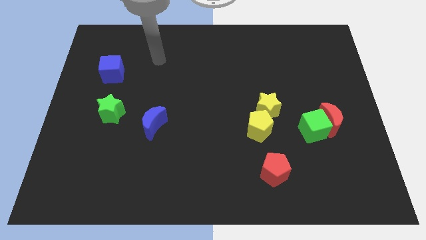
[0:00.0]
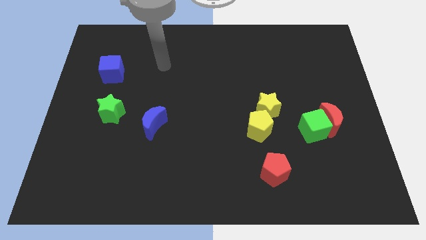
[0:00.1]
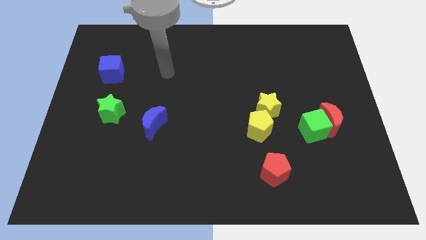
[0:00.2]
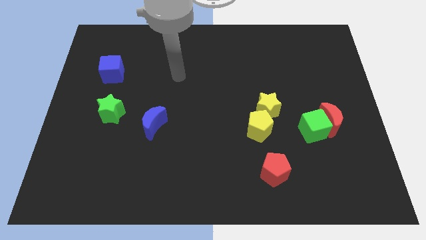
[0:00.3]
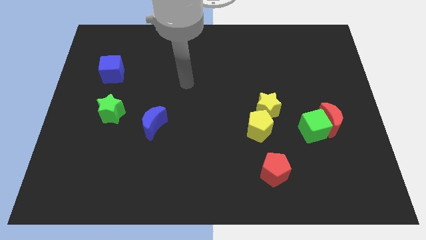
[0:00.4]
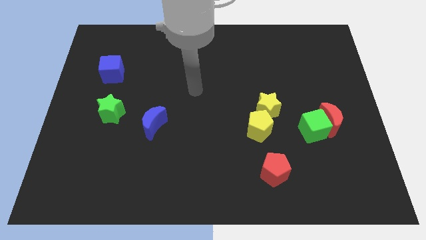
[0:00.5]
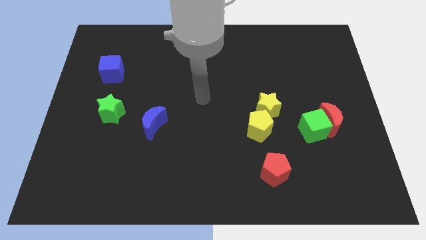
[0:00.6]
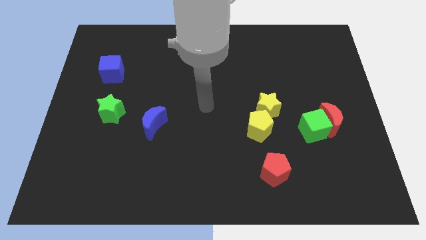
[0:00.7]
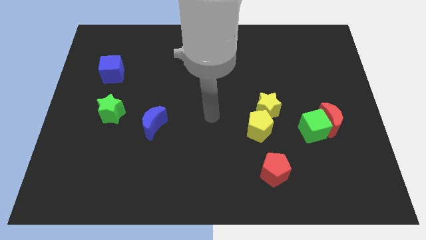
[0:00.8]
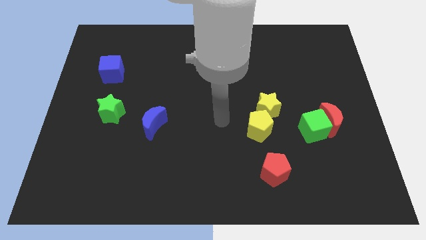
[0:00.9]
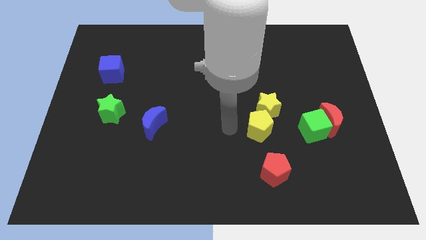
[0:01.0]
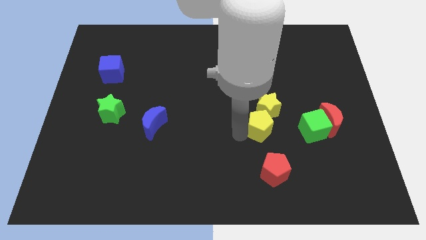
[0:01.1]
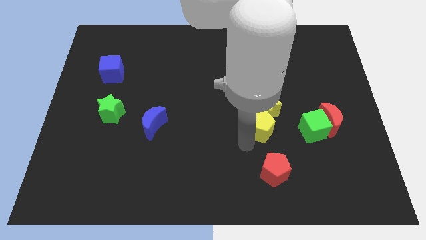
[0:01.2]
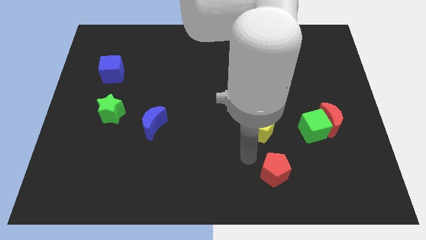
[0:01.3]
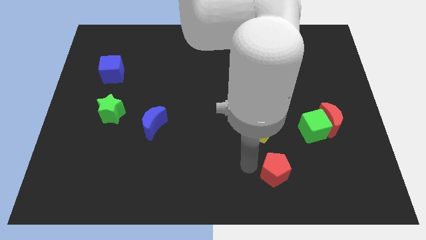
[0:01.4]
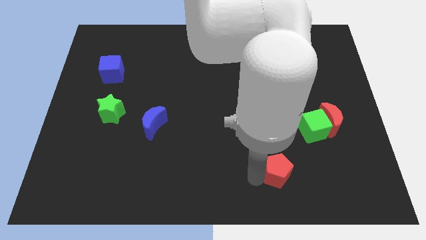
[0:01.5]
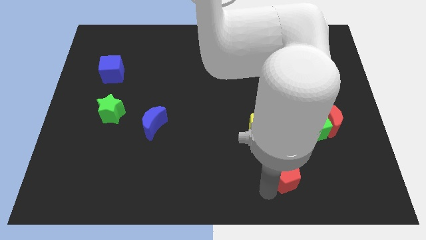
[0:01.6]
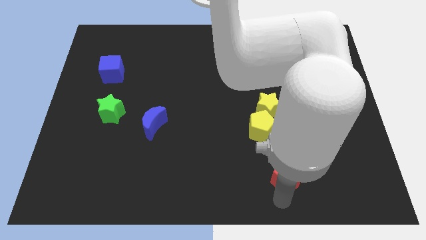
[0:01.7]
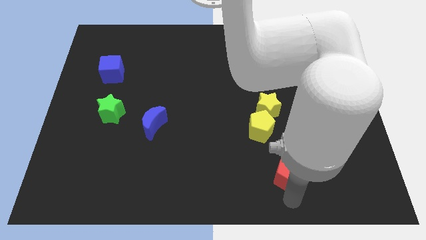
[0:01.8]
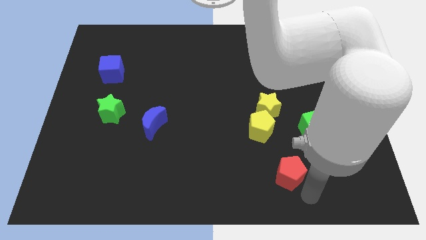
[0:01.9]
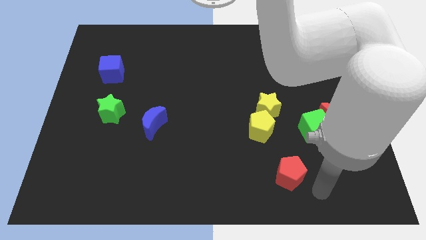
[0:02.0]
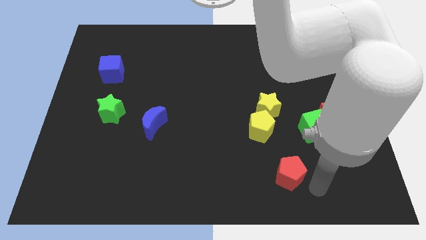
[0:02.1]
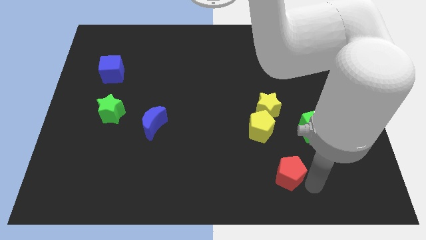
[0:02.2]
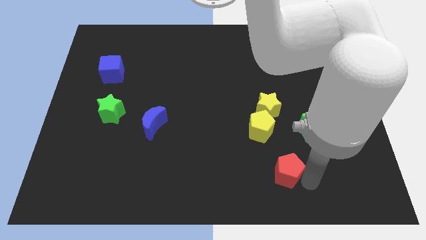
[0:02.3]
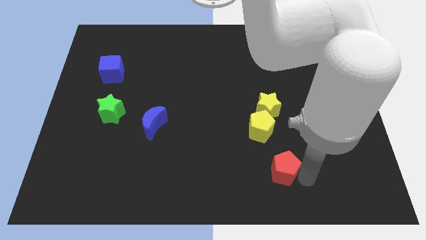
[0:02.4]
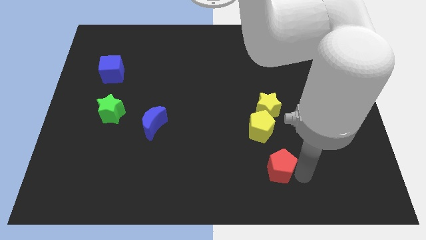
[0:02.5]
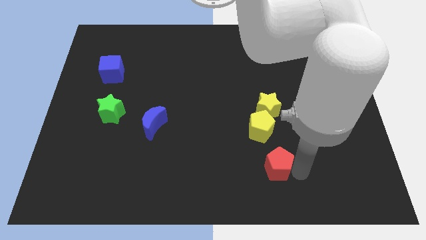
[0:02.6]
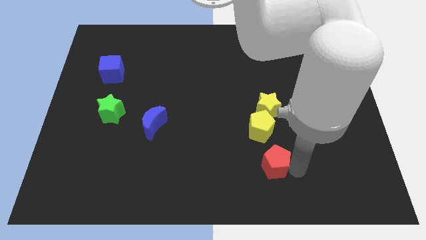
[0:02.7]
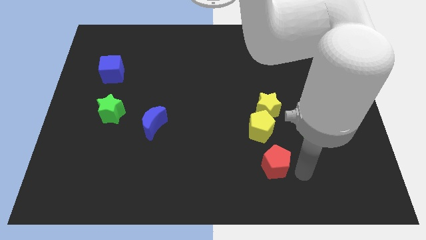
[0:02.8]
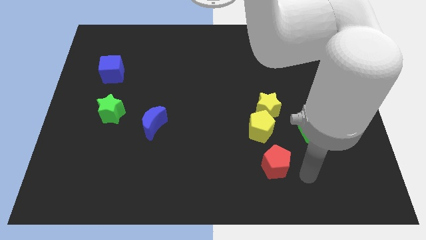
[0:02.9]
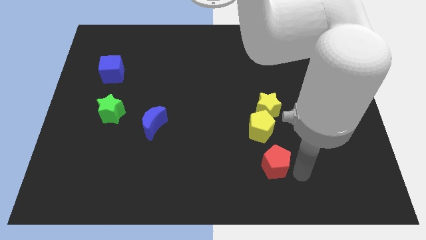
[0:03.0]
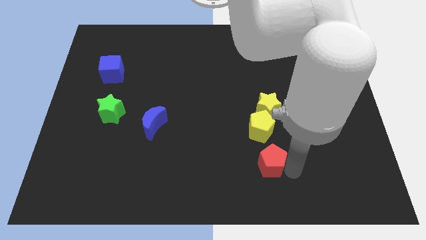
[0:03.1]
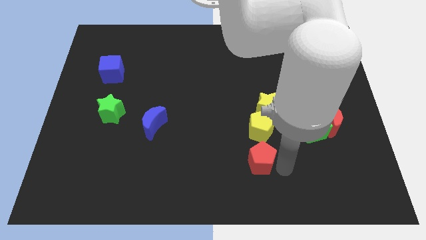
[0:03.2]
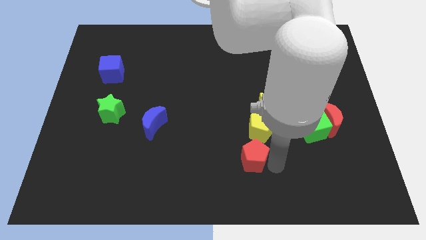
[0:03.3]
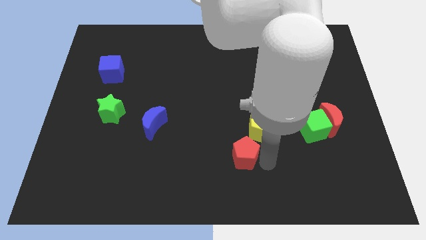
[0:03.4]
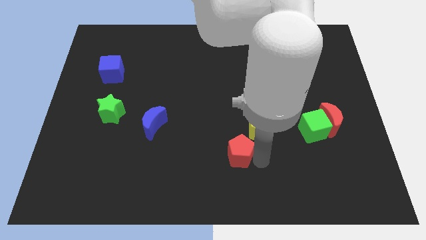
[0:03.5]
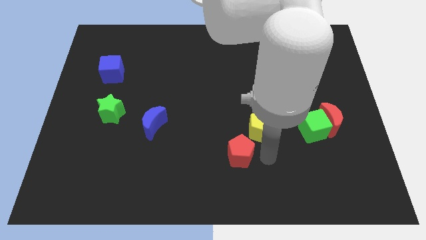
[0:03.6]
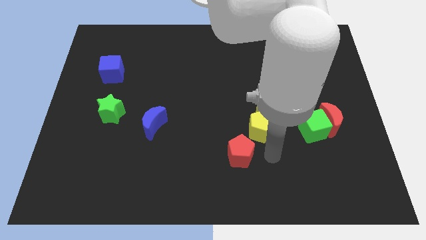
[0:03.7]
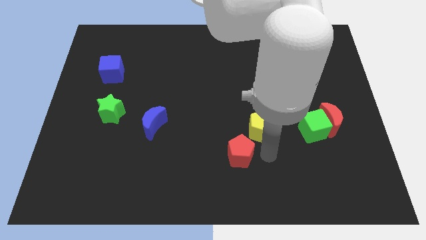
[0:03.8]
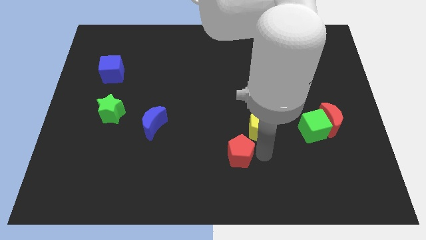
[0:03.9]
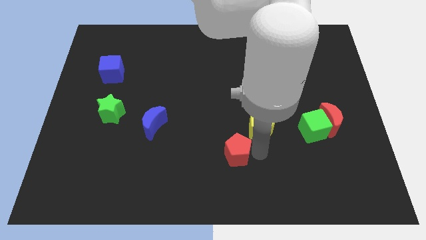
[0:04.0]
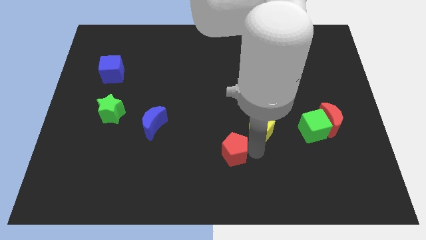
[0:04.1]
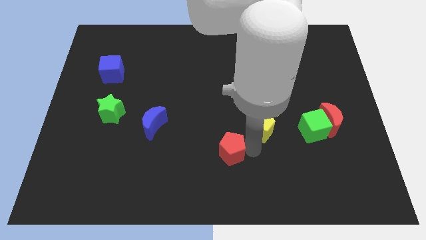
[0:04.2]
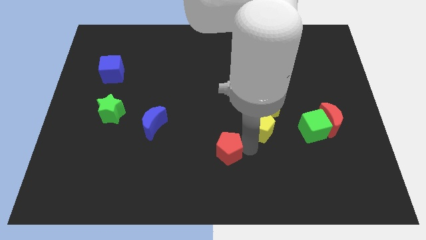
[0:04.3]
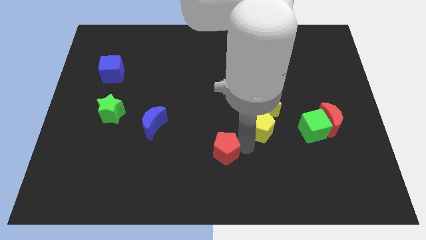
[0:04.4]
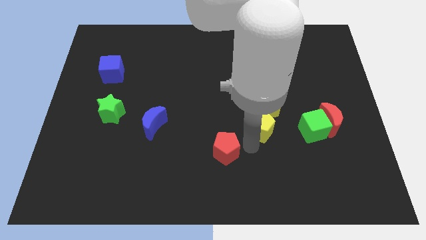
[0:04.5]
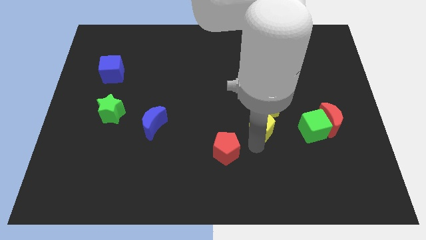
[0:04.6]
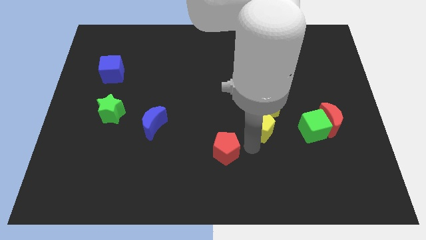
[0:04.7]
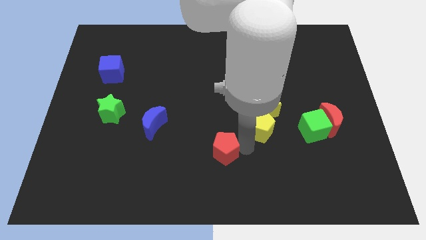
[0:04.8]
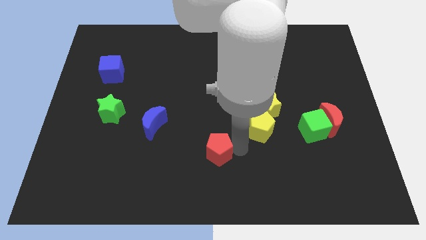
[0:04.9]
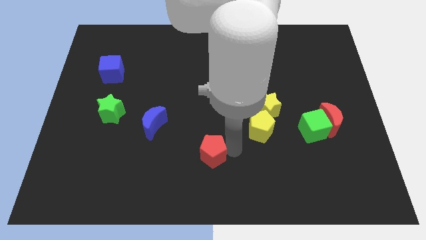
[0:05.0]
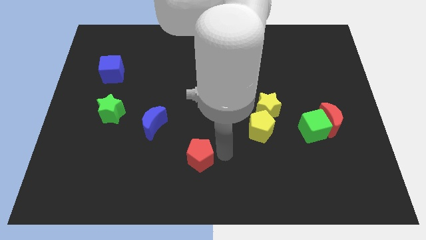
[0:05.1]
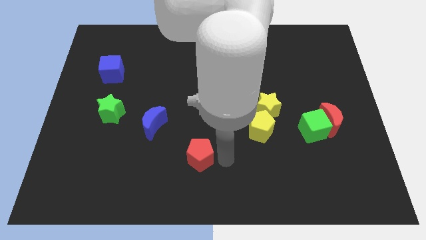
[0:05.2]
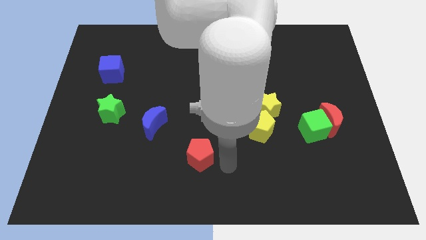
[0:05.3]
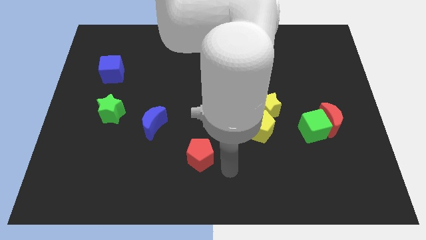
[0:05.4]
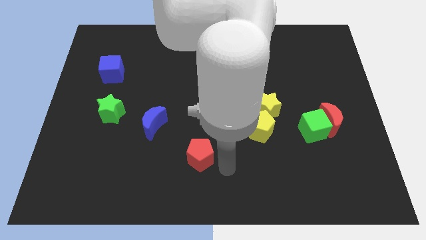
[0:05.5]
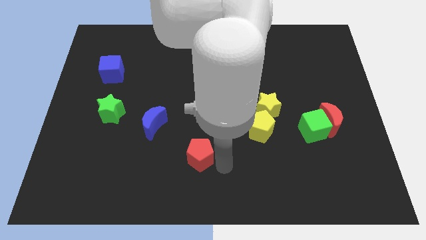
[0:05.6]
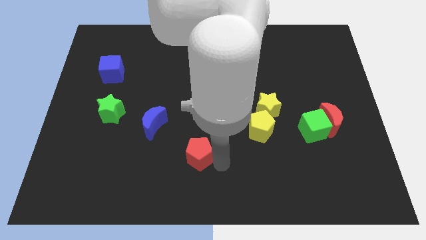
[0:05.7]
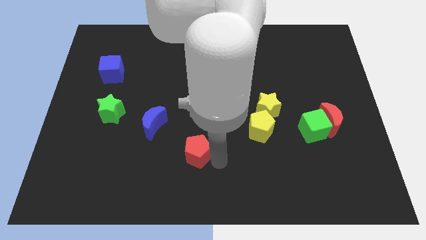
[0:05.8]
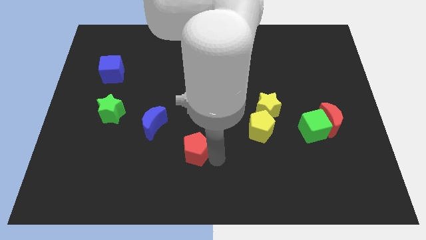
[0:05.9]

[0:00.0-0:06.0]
move the red pentagon to the bottom right side of the blue moon

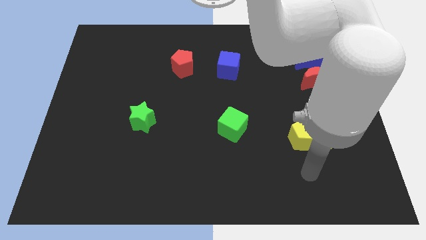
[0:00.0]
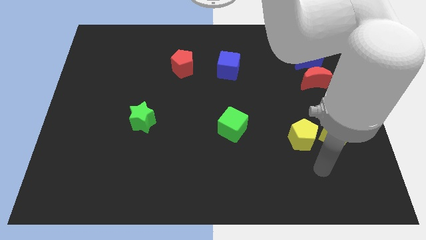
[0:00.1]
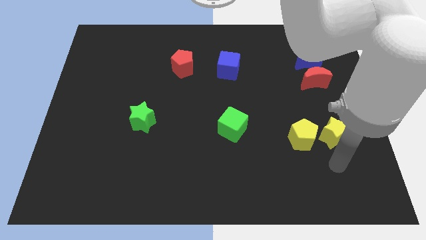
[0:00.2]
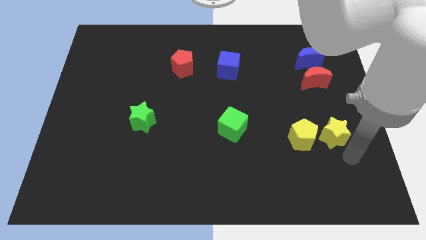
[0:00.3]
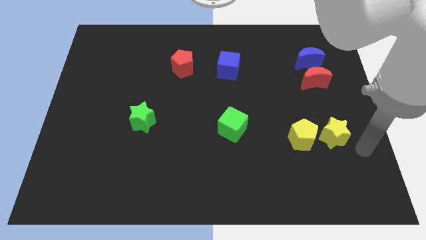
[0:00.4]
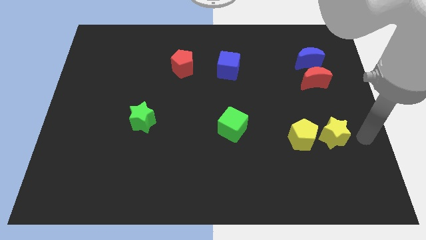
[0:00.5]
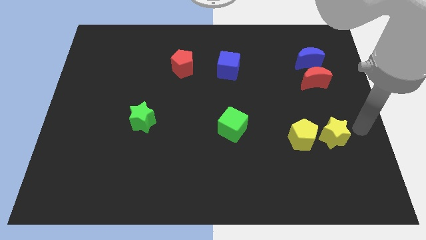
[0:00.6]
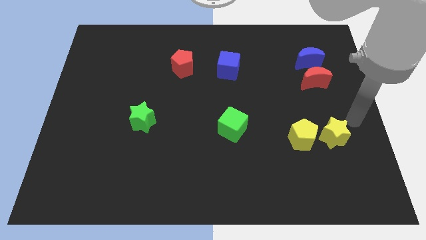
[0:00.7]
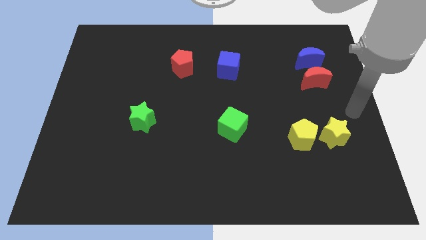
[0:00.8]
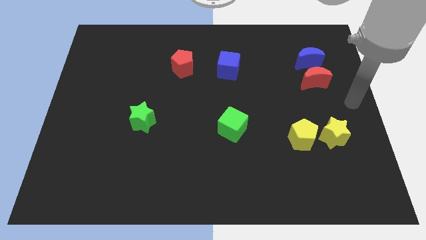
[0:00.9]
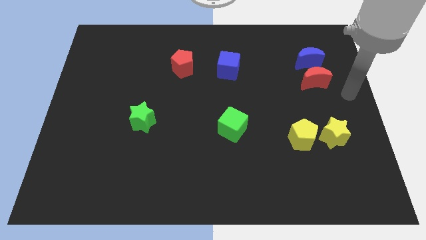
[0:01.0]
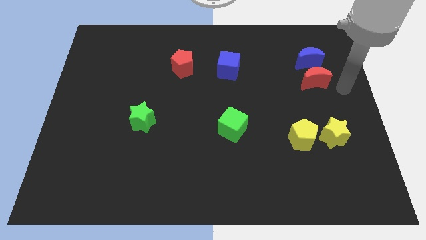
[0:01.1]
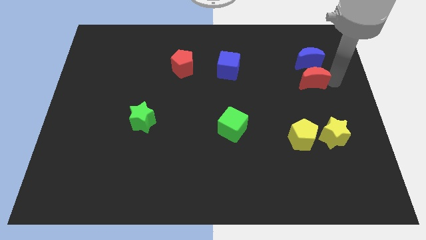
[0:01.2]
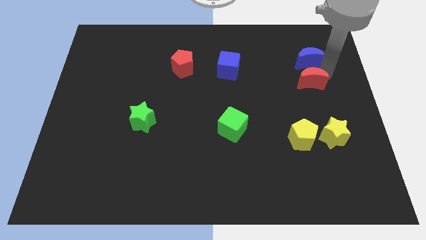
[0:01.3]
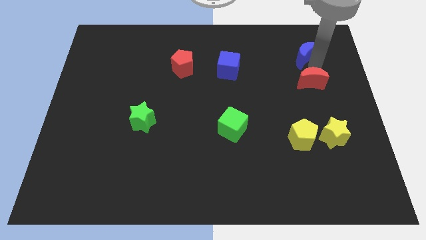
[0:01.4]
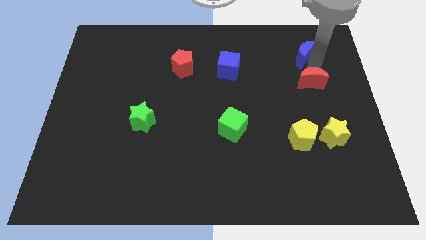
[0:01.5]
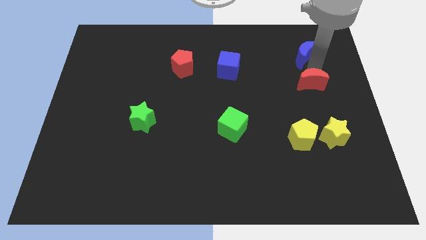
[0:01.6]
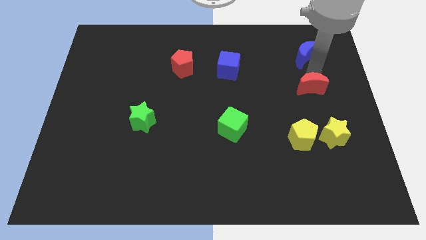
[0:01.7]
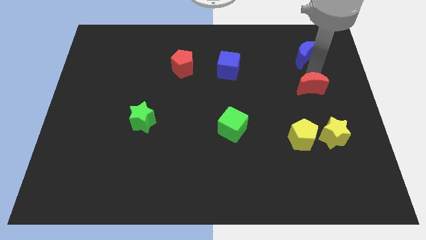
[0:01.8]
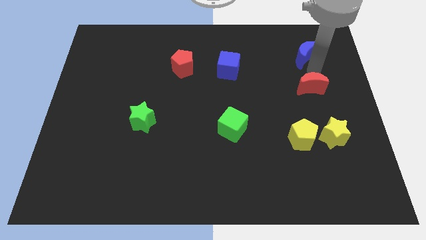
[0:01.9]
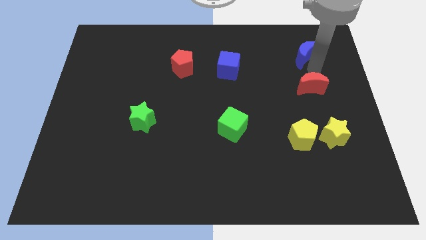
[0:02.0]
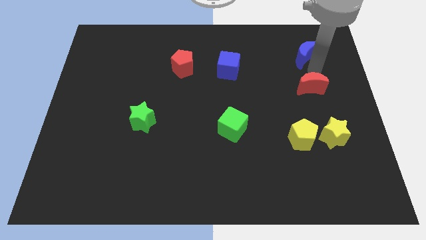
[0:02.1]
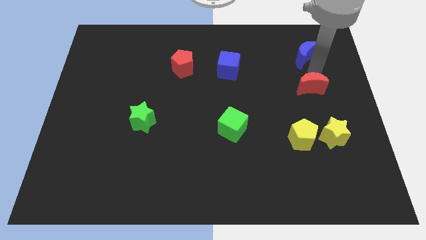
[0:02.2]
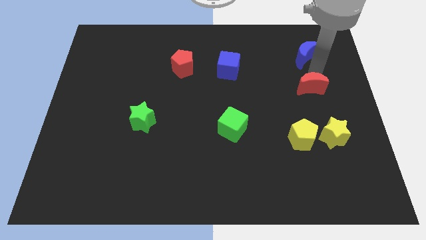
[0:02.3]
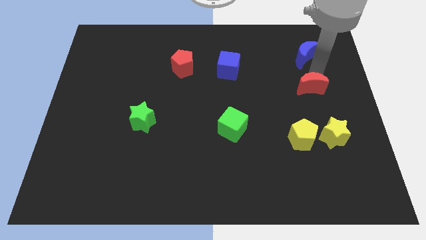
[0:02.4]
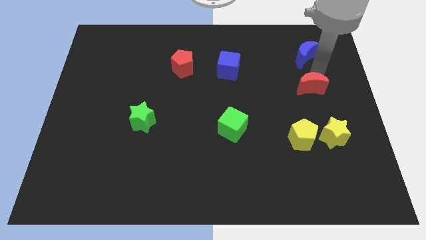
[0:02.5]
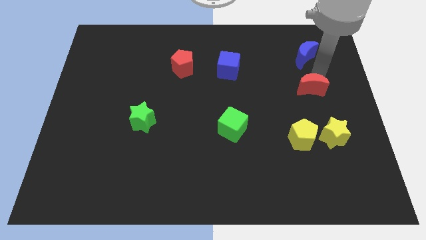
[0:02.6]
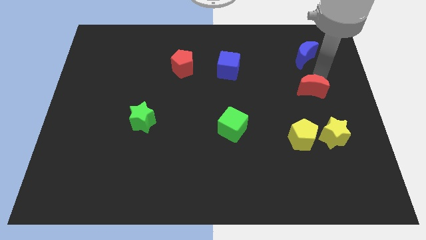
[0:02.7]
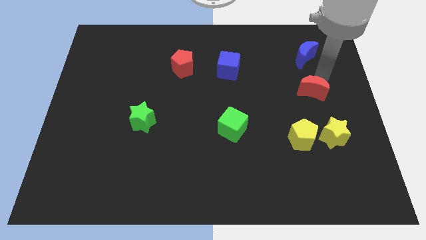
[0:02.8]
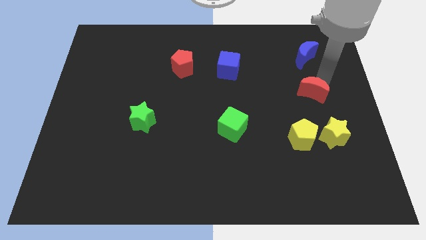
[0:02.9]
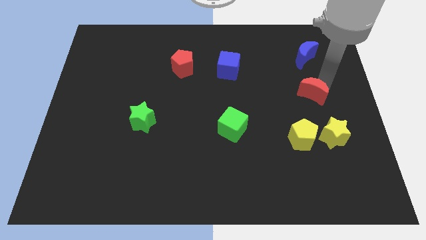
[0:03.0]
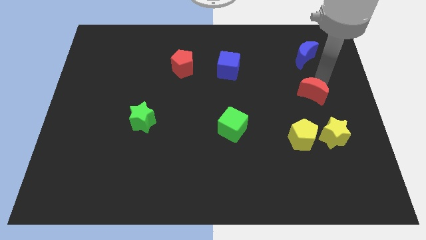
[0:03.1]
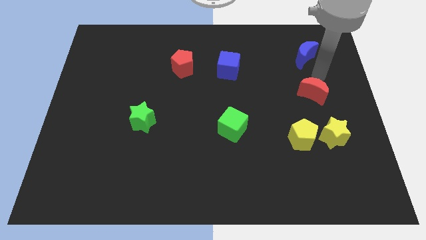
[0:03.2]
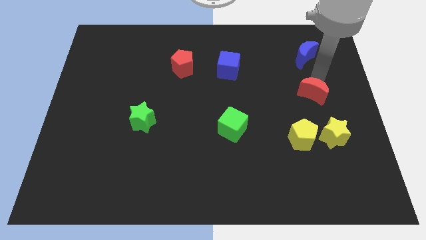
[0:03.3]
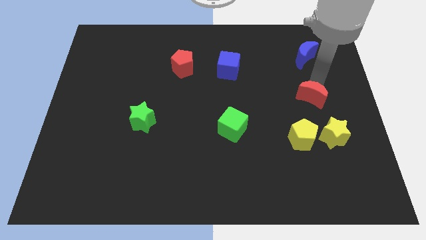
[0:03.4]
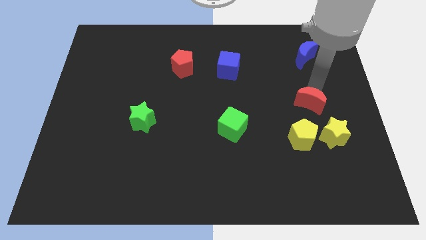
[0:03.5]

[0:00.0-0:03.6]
move the red moon diagonally up and to the left of the yellow star
